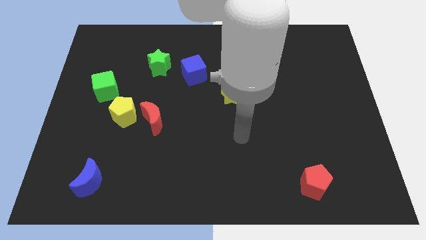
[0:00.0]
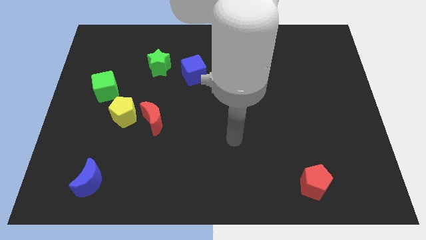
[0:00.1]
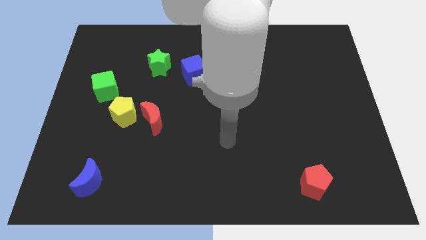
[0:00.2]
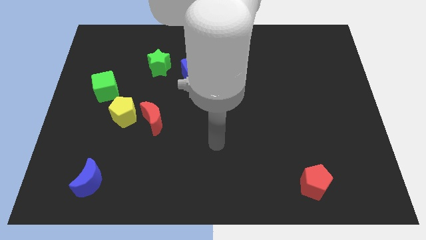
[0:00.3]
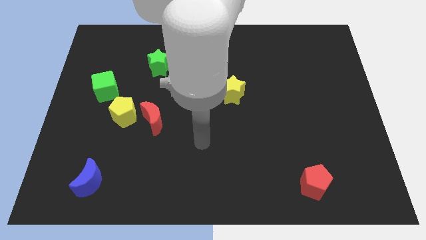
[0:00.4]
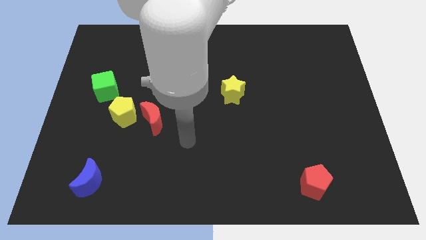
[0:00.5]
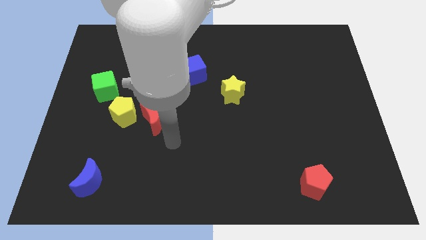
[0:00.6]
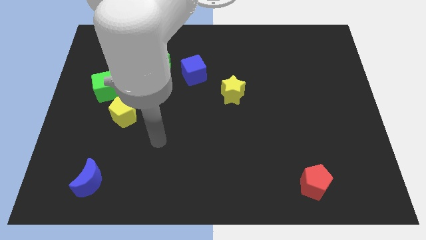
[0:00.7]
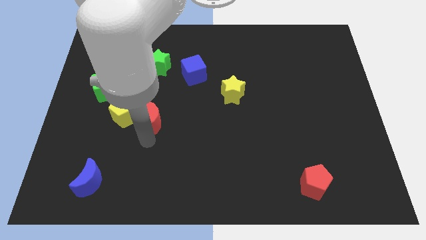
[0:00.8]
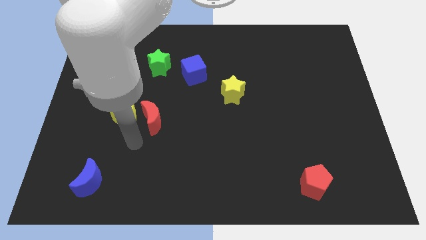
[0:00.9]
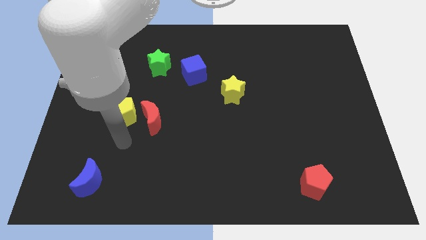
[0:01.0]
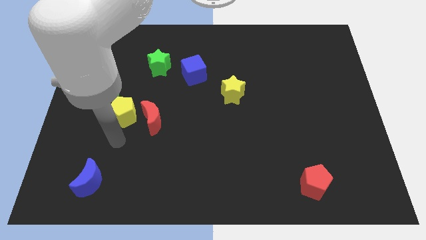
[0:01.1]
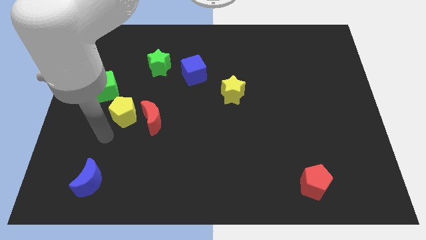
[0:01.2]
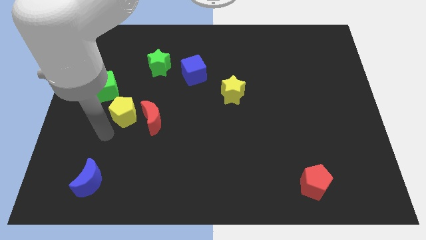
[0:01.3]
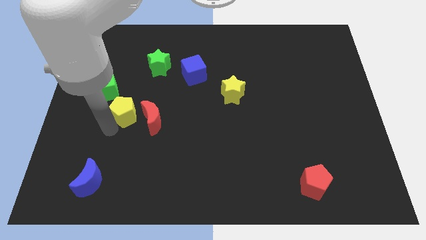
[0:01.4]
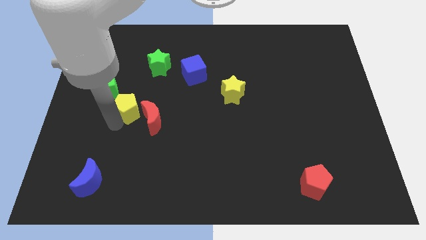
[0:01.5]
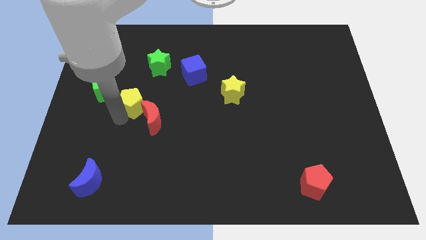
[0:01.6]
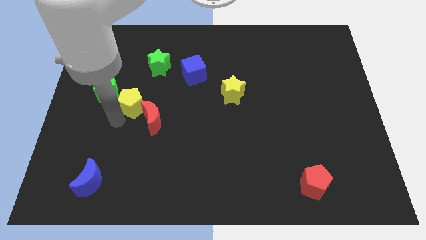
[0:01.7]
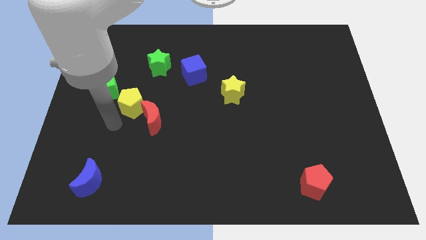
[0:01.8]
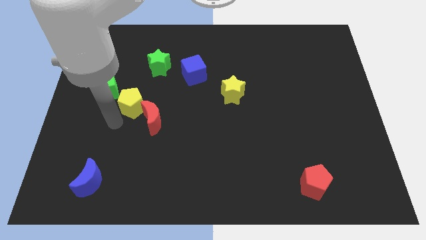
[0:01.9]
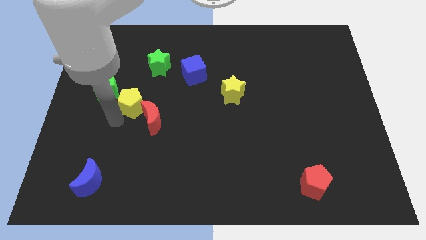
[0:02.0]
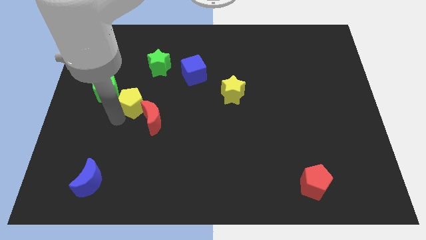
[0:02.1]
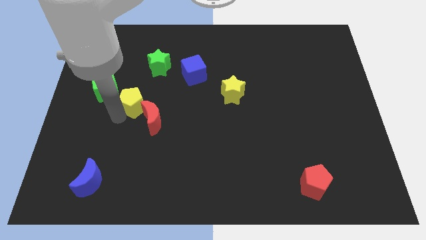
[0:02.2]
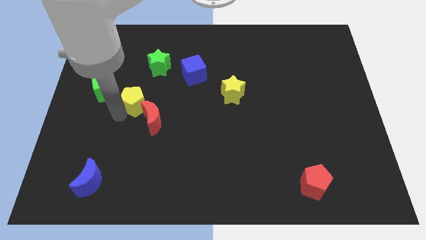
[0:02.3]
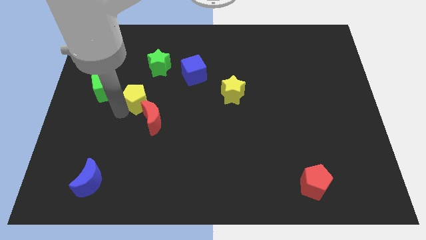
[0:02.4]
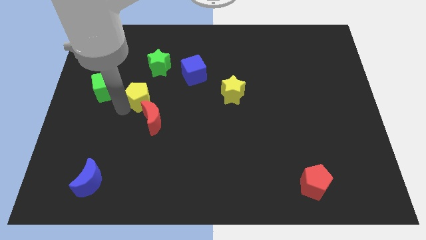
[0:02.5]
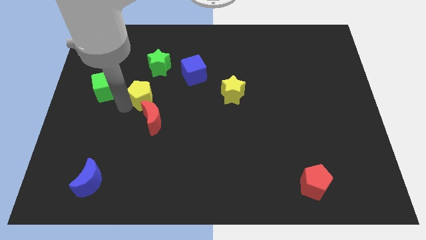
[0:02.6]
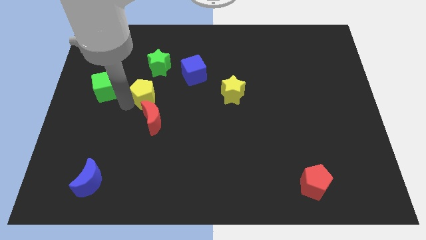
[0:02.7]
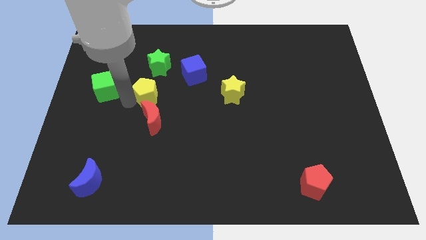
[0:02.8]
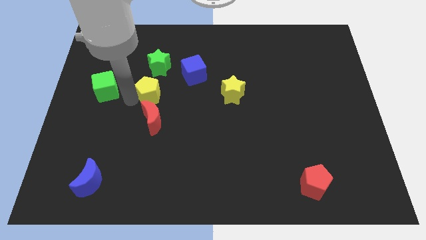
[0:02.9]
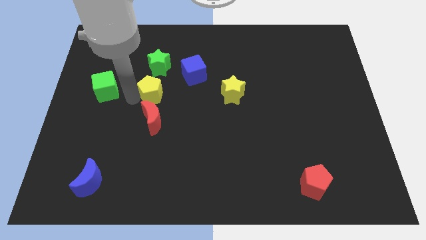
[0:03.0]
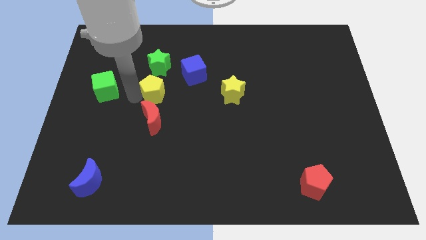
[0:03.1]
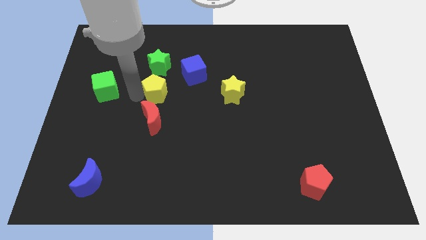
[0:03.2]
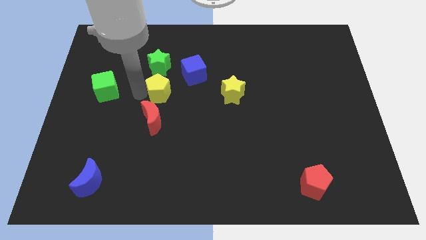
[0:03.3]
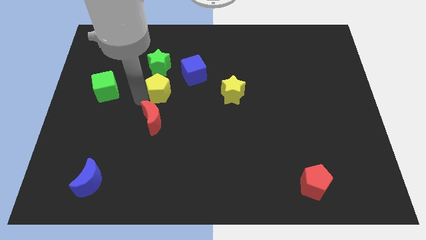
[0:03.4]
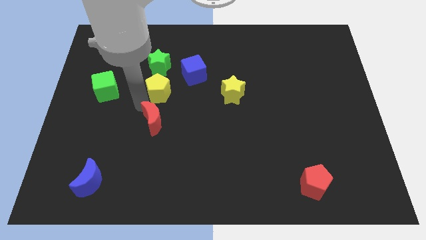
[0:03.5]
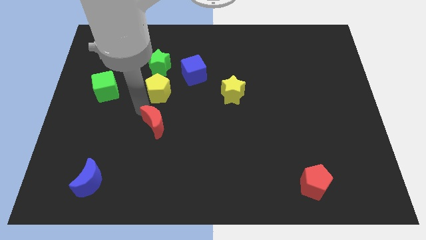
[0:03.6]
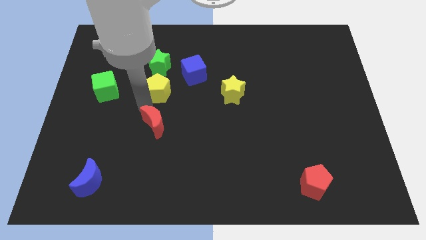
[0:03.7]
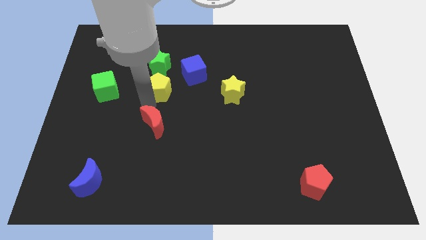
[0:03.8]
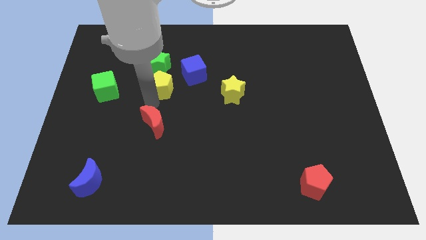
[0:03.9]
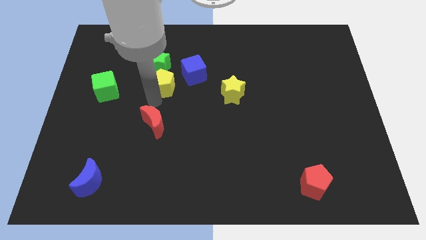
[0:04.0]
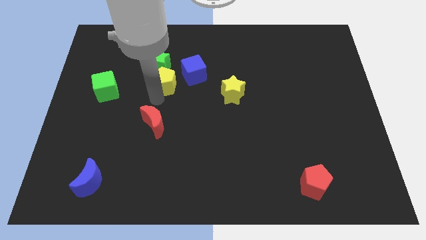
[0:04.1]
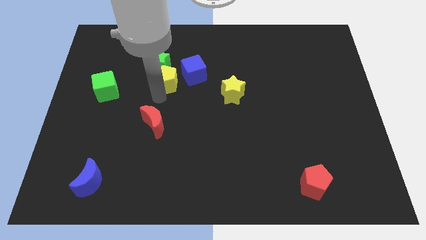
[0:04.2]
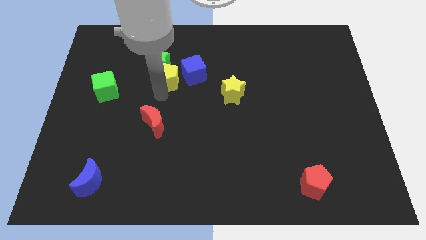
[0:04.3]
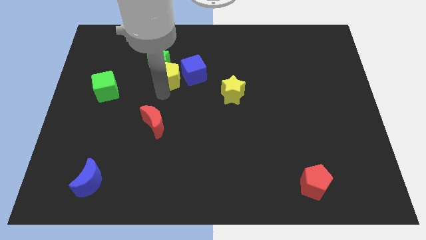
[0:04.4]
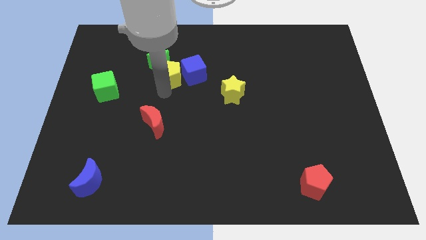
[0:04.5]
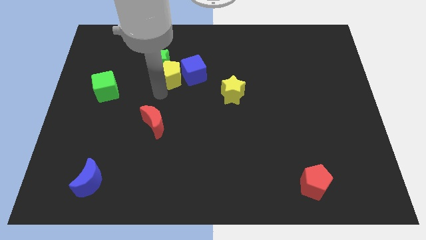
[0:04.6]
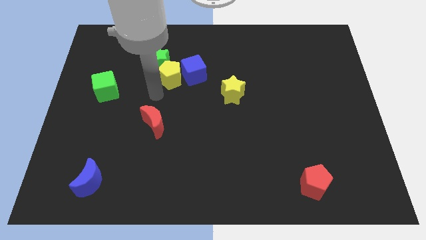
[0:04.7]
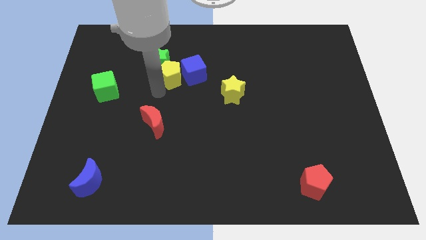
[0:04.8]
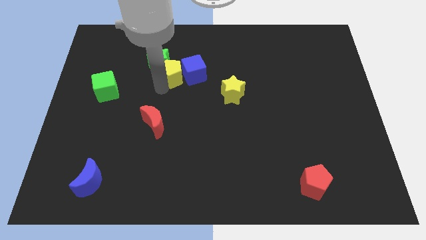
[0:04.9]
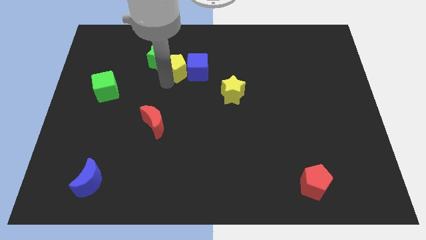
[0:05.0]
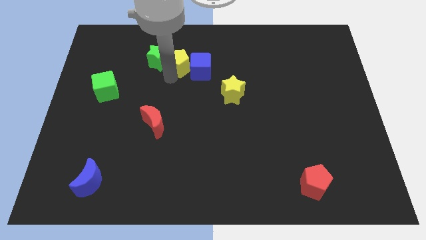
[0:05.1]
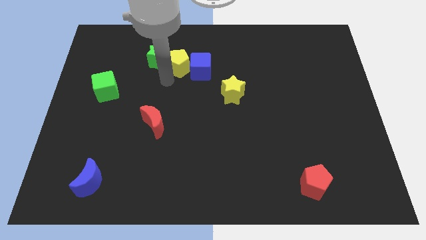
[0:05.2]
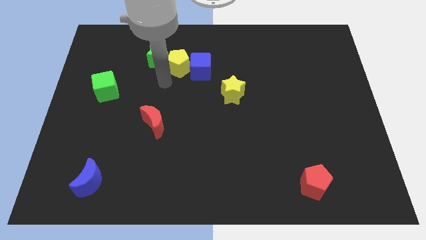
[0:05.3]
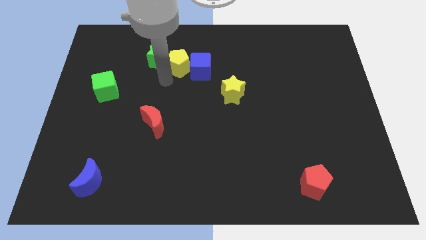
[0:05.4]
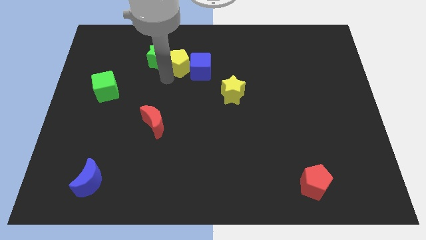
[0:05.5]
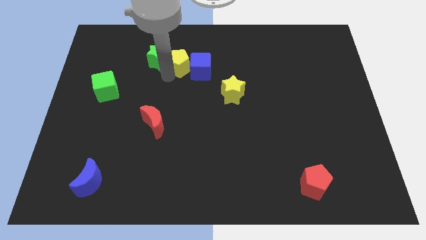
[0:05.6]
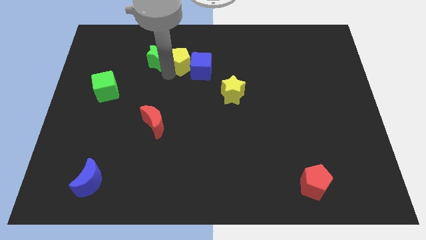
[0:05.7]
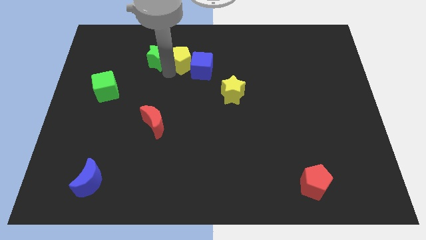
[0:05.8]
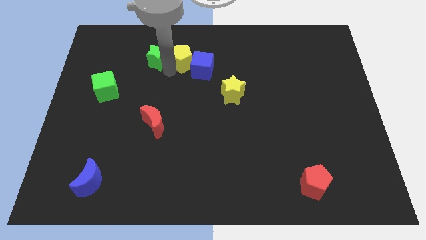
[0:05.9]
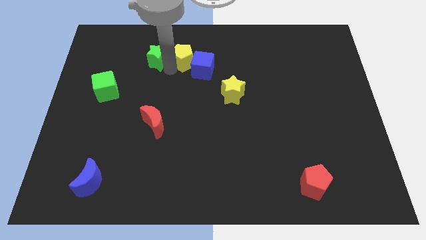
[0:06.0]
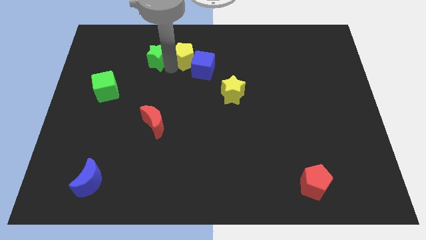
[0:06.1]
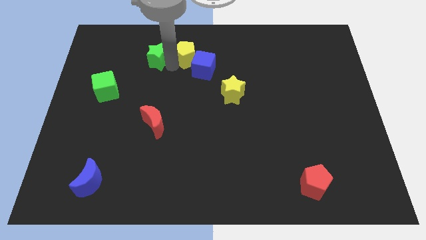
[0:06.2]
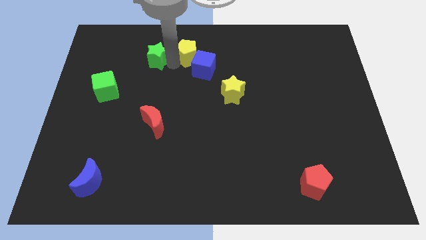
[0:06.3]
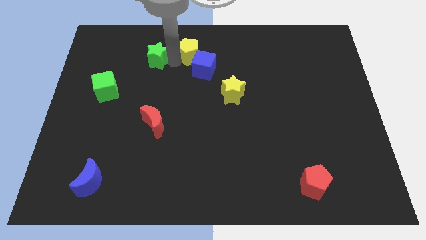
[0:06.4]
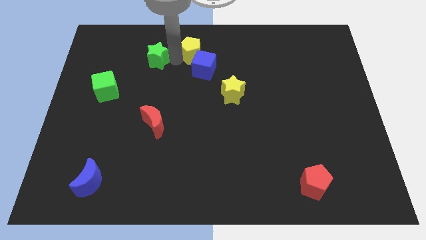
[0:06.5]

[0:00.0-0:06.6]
move the yellow pentagon to the top

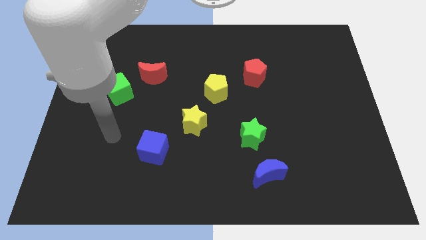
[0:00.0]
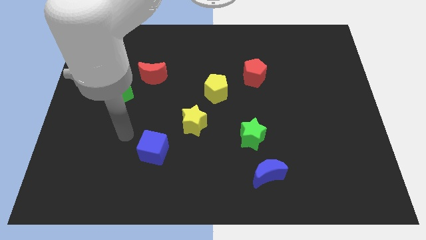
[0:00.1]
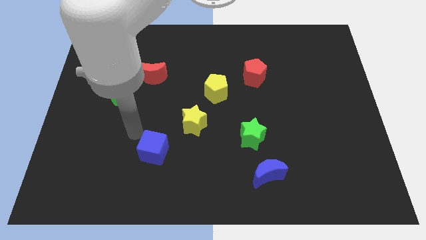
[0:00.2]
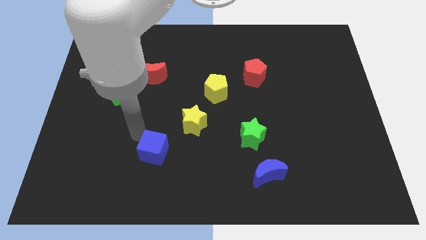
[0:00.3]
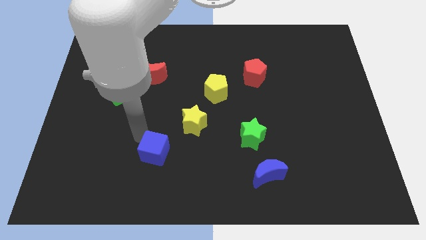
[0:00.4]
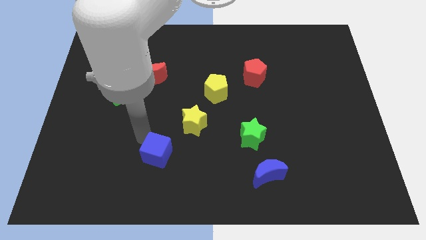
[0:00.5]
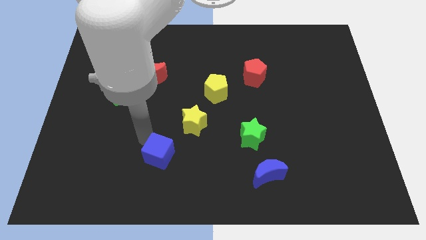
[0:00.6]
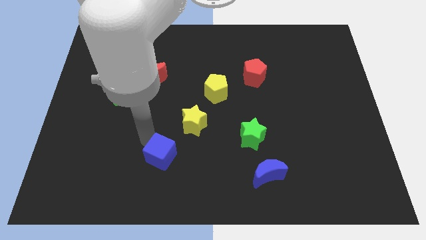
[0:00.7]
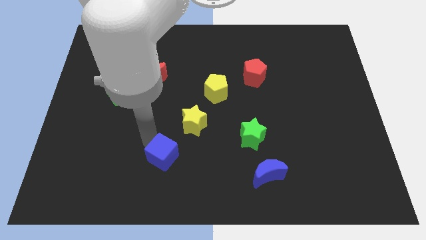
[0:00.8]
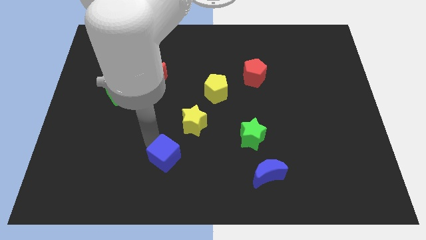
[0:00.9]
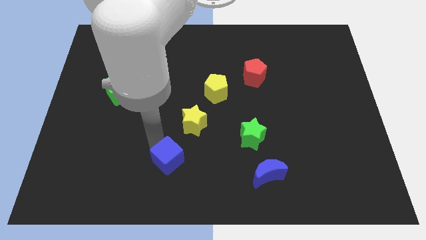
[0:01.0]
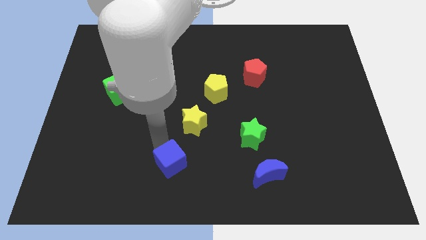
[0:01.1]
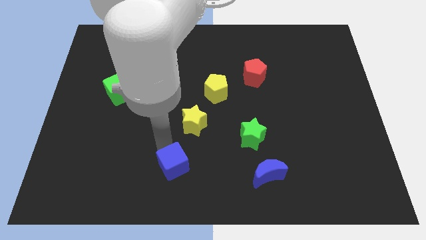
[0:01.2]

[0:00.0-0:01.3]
push the blue cube to the bottom
